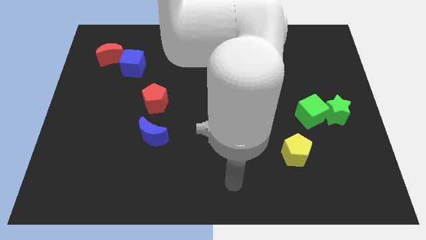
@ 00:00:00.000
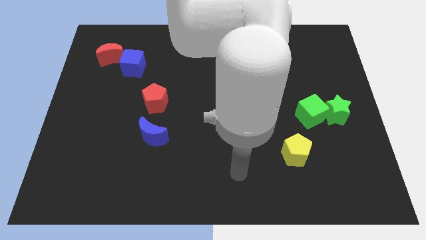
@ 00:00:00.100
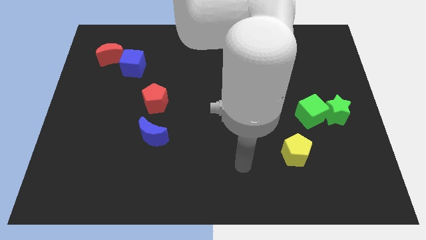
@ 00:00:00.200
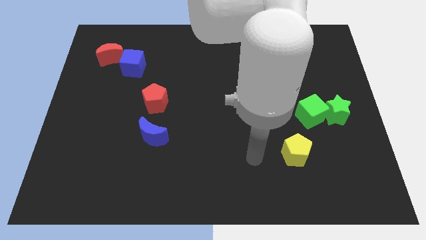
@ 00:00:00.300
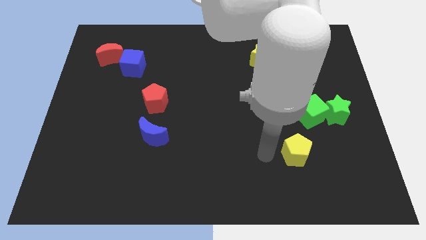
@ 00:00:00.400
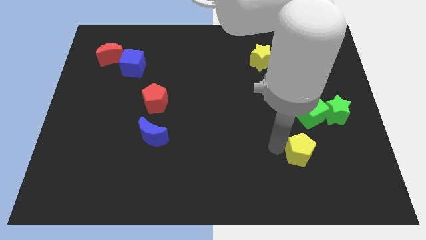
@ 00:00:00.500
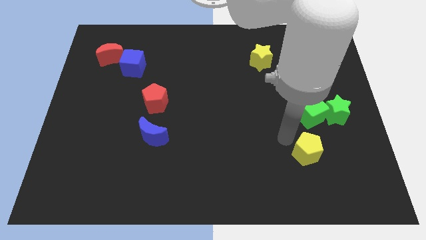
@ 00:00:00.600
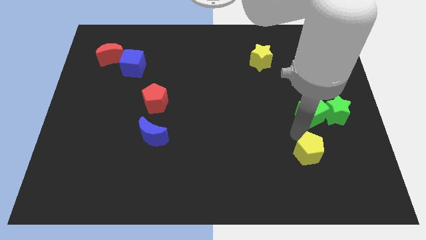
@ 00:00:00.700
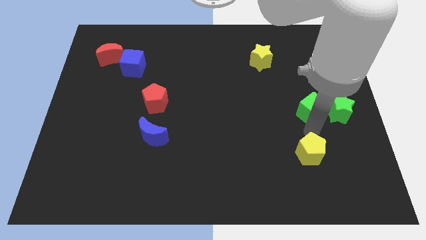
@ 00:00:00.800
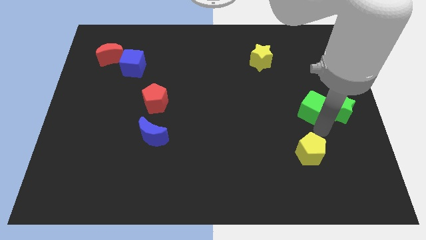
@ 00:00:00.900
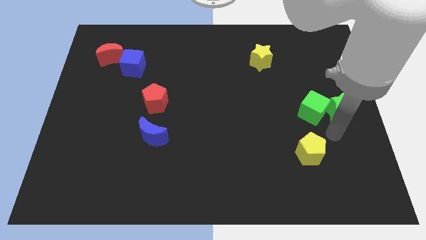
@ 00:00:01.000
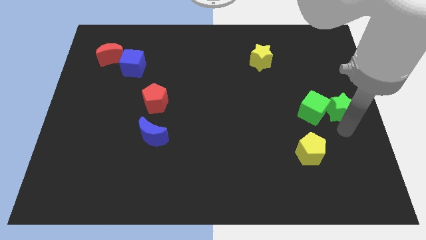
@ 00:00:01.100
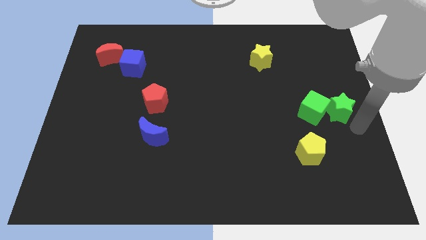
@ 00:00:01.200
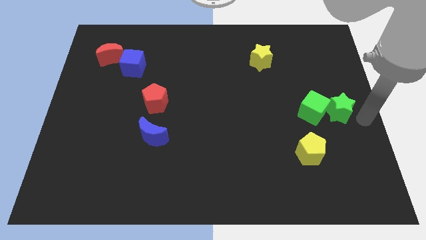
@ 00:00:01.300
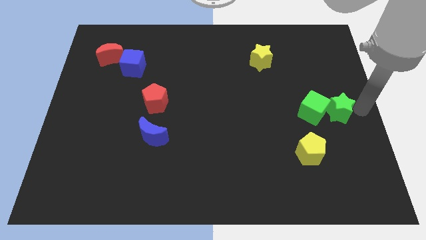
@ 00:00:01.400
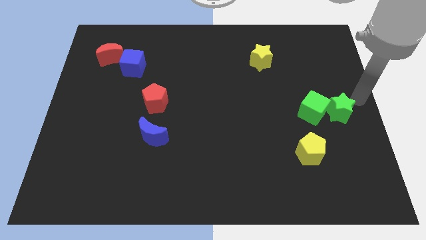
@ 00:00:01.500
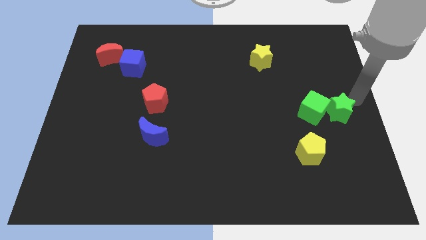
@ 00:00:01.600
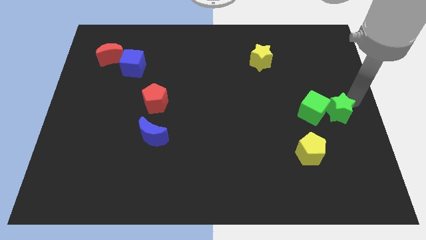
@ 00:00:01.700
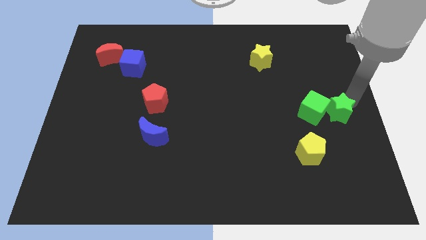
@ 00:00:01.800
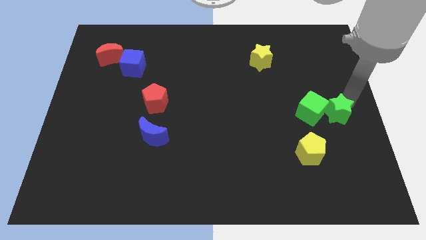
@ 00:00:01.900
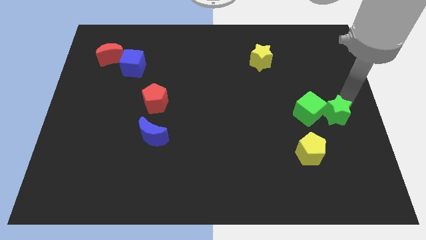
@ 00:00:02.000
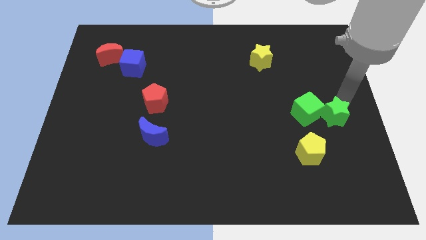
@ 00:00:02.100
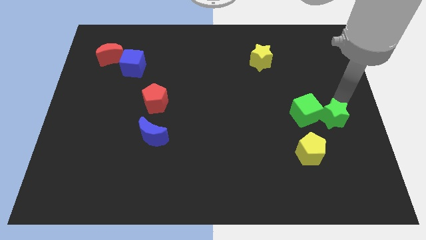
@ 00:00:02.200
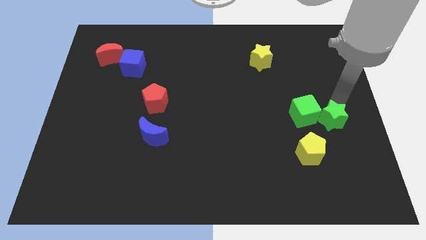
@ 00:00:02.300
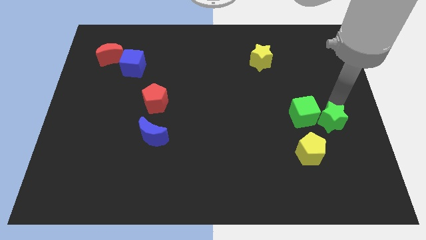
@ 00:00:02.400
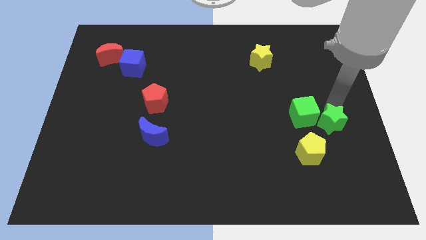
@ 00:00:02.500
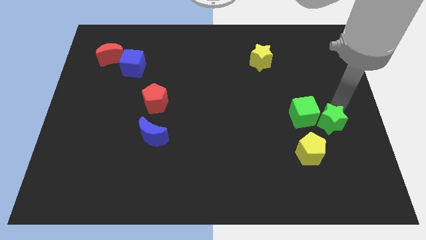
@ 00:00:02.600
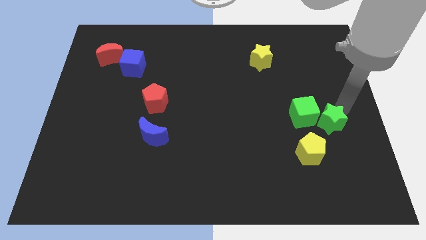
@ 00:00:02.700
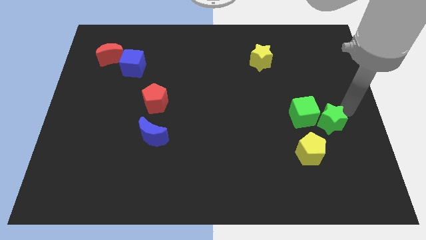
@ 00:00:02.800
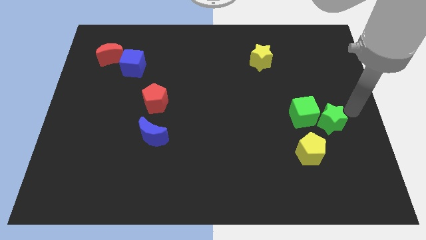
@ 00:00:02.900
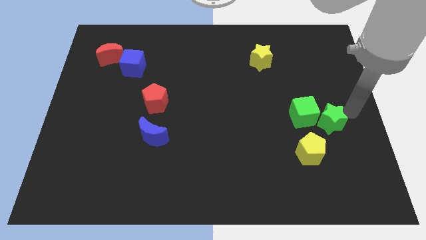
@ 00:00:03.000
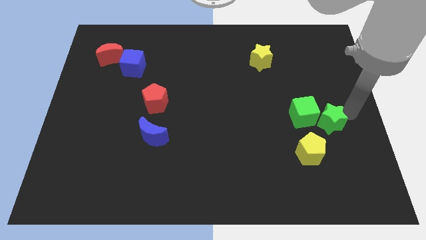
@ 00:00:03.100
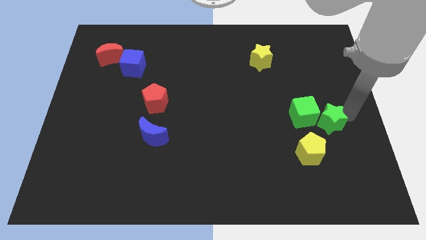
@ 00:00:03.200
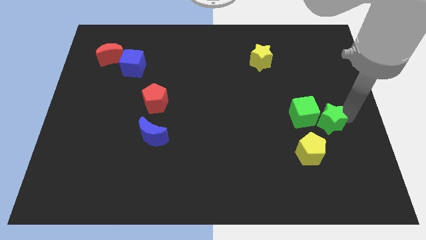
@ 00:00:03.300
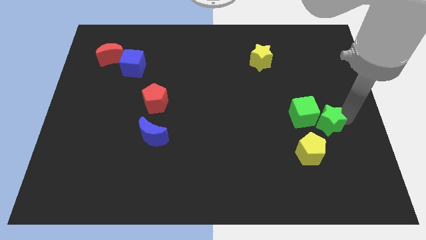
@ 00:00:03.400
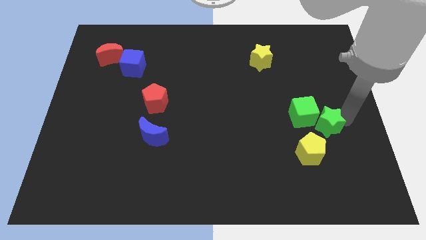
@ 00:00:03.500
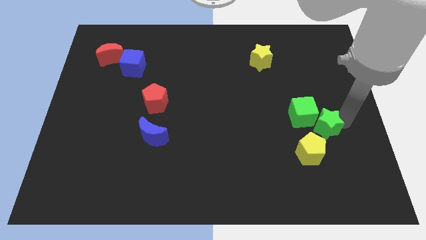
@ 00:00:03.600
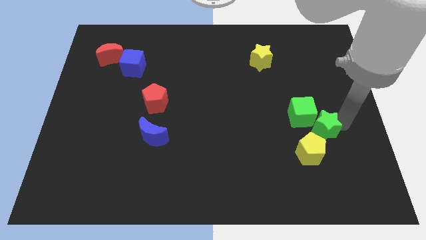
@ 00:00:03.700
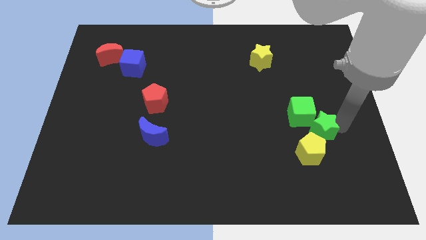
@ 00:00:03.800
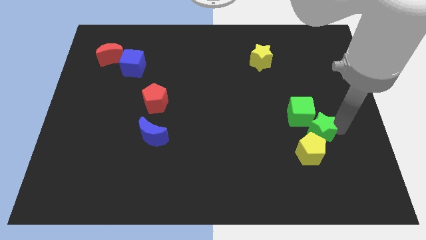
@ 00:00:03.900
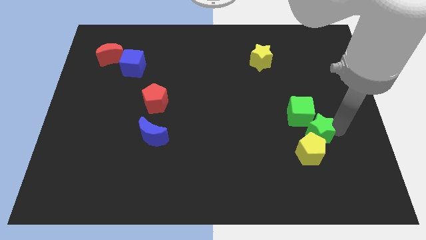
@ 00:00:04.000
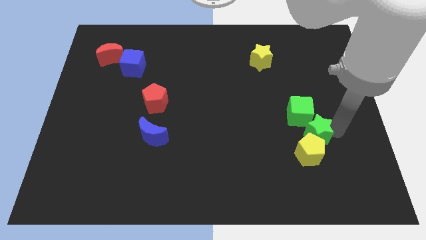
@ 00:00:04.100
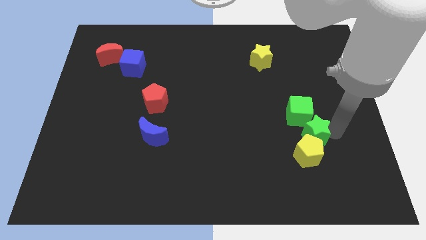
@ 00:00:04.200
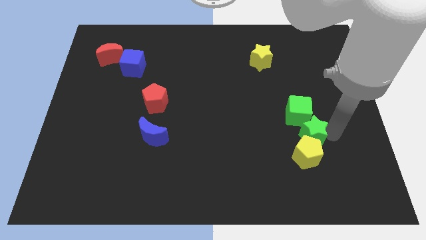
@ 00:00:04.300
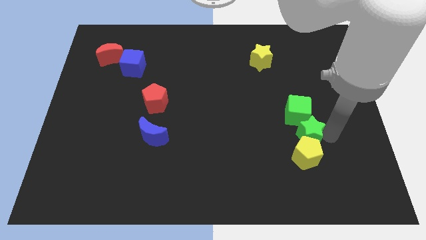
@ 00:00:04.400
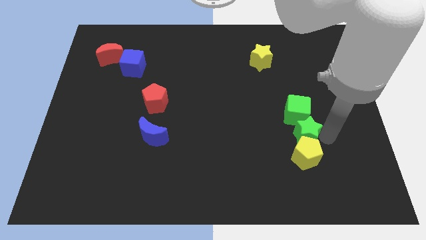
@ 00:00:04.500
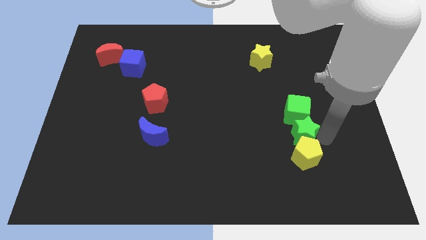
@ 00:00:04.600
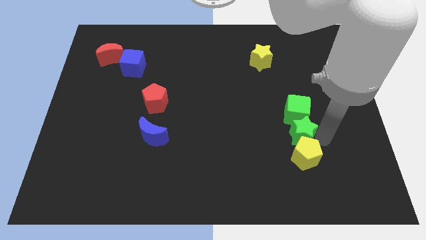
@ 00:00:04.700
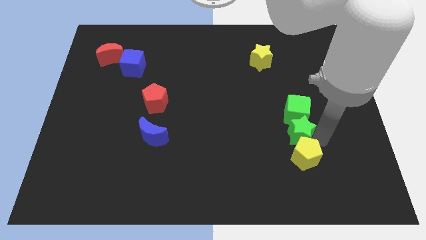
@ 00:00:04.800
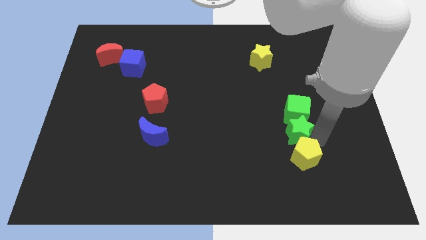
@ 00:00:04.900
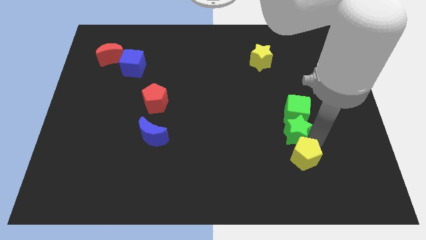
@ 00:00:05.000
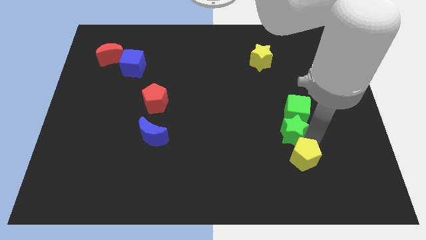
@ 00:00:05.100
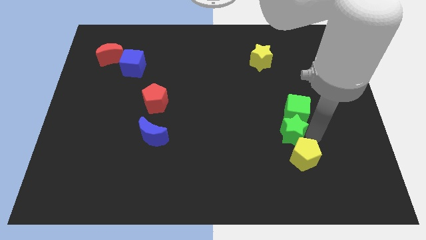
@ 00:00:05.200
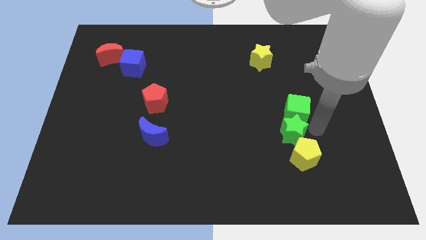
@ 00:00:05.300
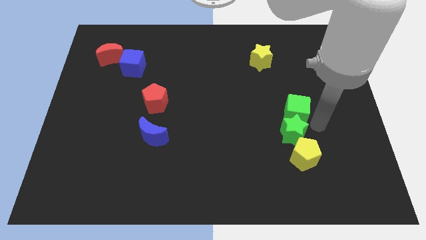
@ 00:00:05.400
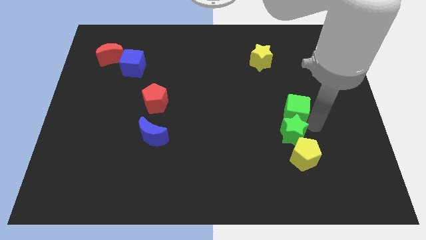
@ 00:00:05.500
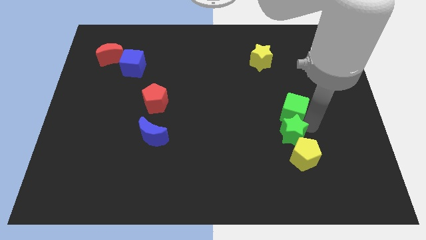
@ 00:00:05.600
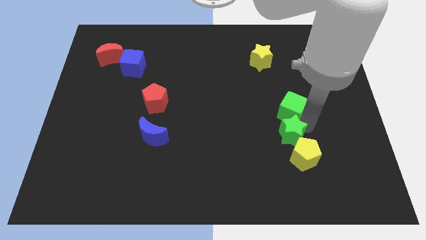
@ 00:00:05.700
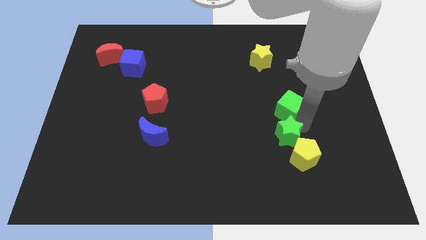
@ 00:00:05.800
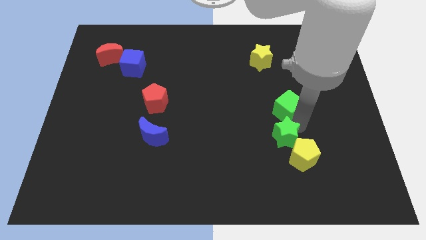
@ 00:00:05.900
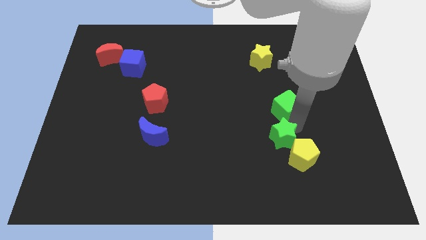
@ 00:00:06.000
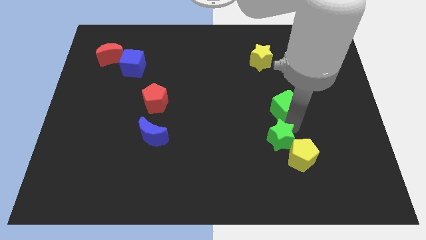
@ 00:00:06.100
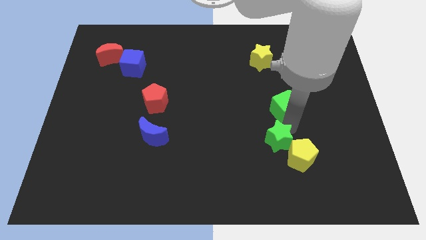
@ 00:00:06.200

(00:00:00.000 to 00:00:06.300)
move the green star to the left side of the yellow pentagon

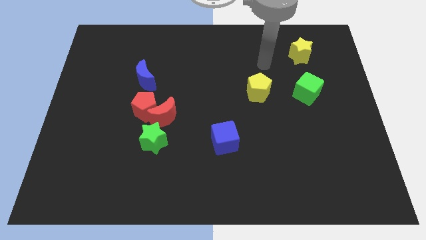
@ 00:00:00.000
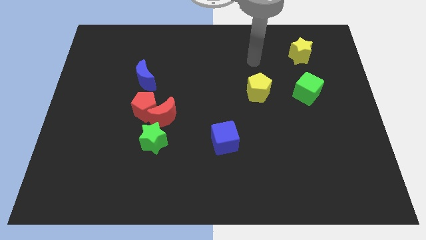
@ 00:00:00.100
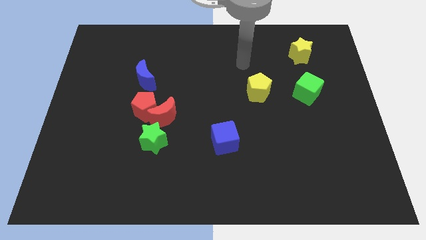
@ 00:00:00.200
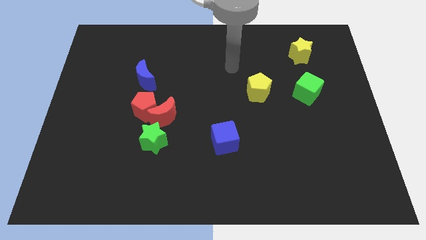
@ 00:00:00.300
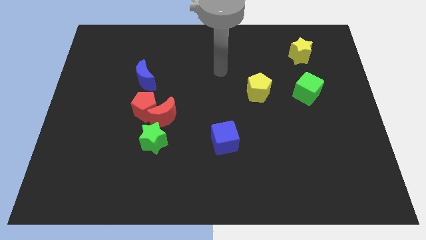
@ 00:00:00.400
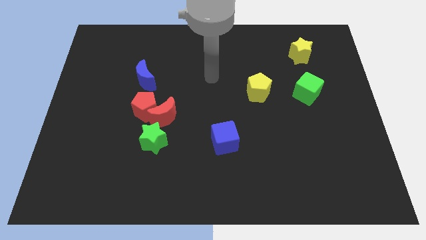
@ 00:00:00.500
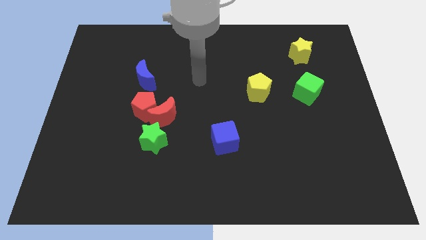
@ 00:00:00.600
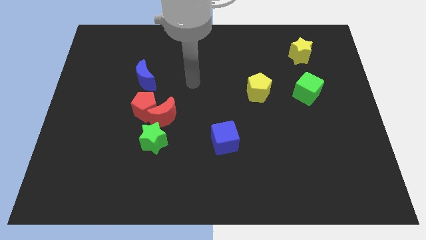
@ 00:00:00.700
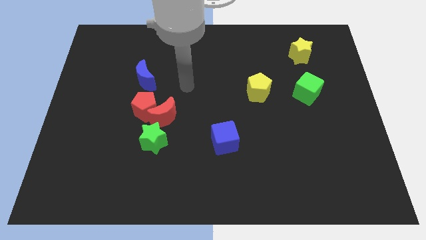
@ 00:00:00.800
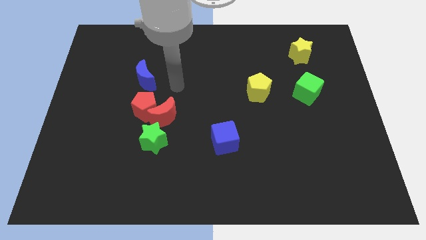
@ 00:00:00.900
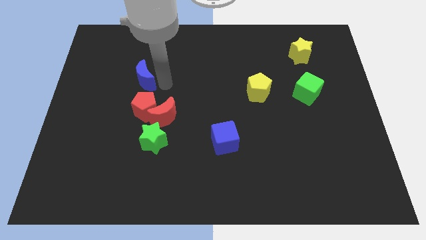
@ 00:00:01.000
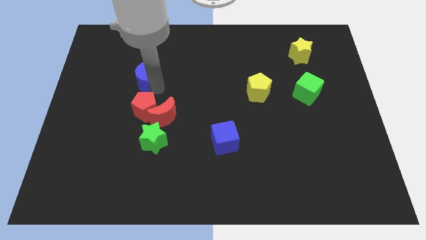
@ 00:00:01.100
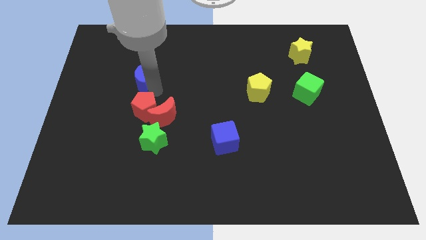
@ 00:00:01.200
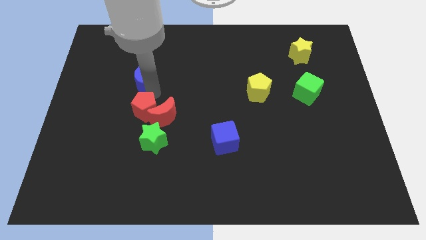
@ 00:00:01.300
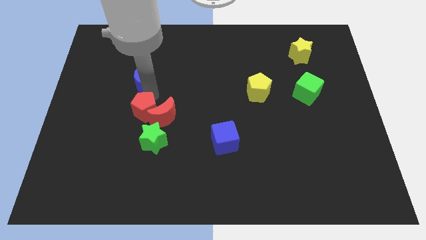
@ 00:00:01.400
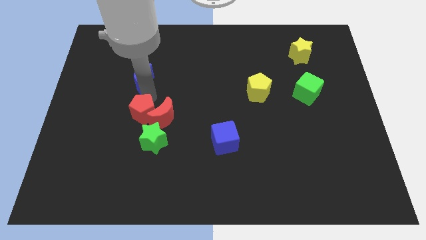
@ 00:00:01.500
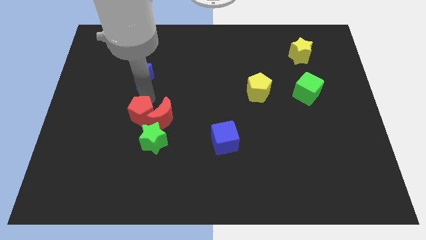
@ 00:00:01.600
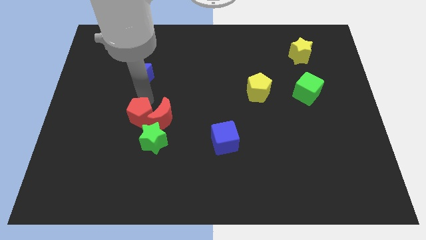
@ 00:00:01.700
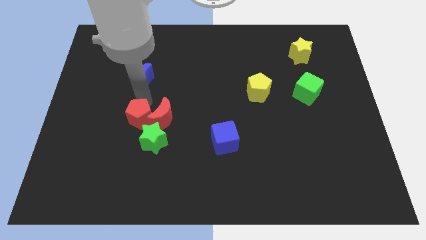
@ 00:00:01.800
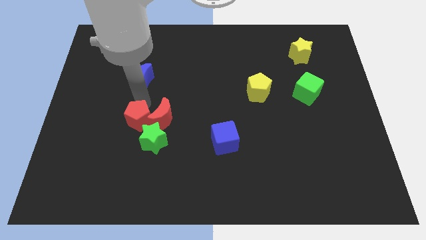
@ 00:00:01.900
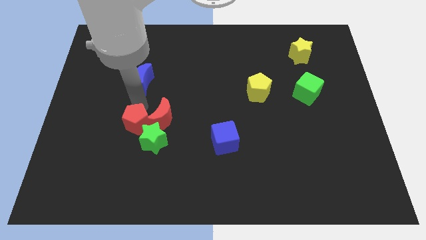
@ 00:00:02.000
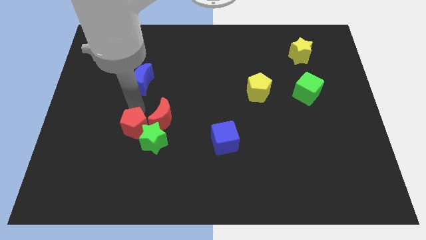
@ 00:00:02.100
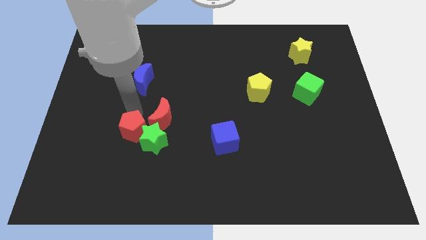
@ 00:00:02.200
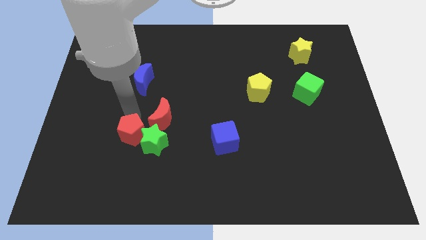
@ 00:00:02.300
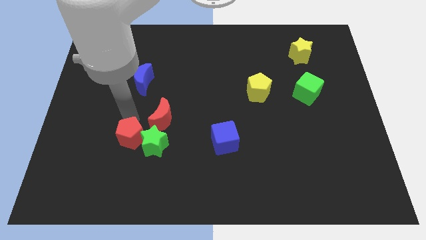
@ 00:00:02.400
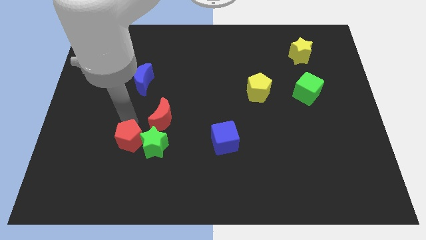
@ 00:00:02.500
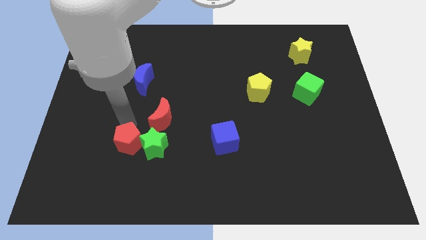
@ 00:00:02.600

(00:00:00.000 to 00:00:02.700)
push the red pentagon diagonally down and to the left of the green star
